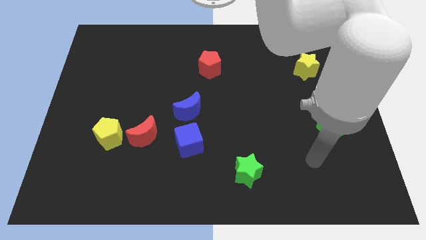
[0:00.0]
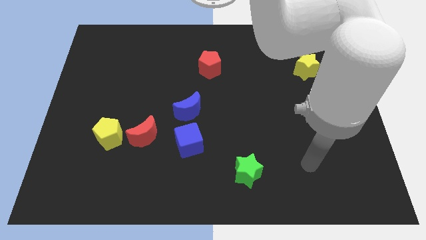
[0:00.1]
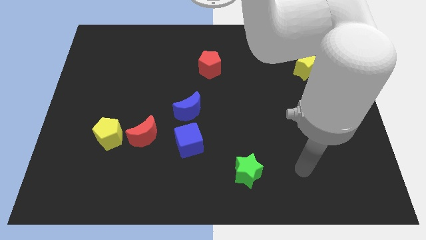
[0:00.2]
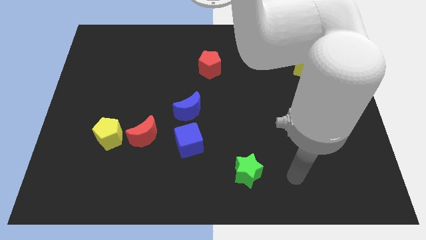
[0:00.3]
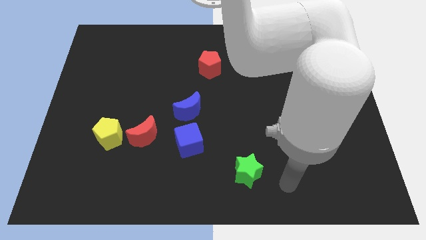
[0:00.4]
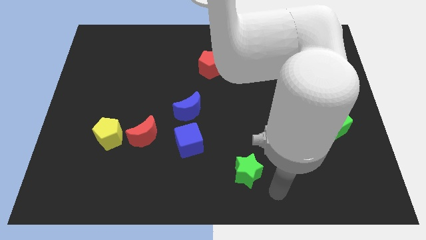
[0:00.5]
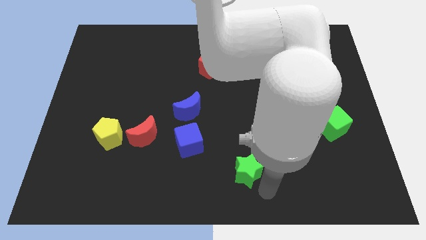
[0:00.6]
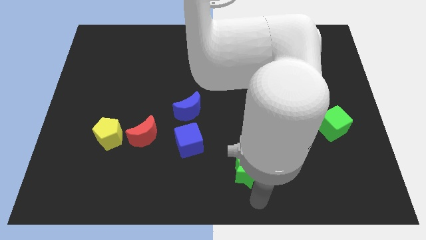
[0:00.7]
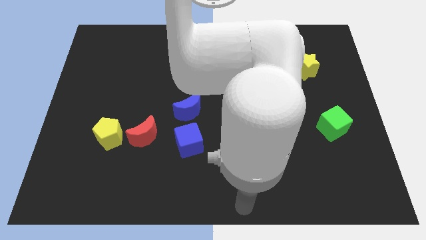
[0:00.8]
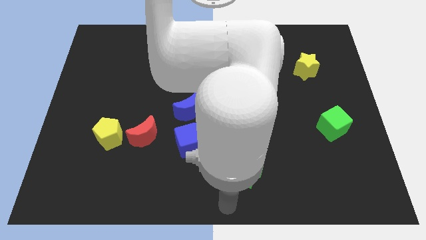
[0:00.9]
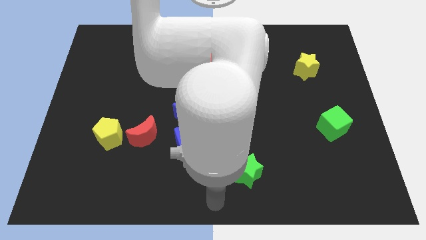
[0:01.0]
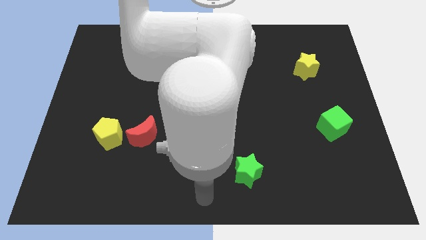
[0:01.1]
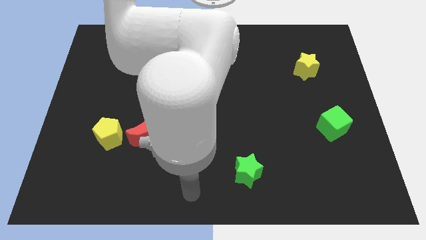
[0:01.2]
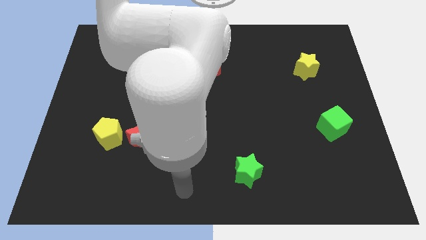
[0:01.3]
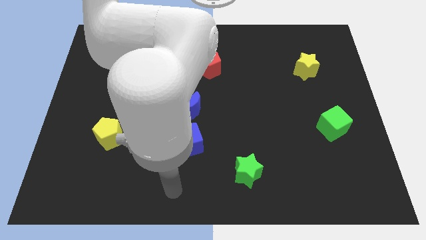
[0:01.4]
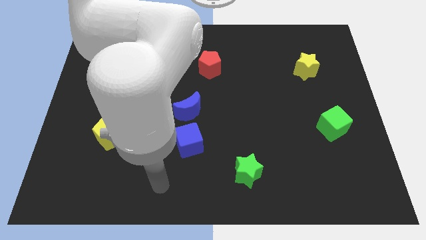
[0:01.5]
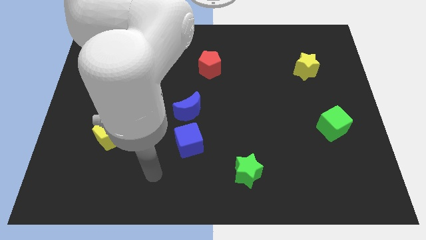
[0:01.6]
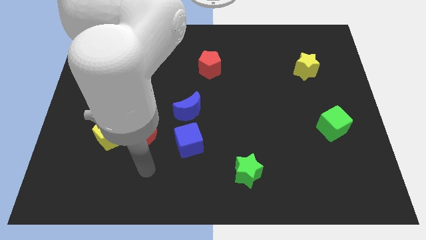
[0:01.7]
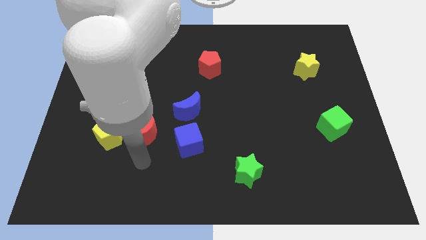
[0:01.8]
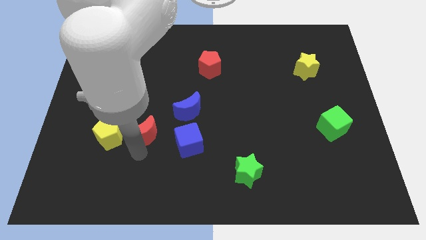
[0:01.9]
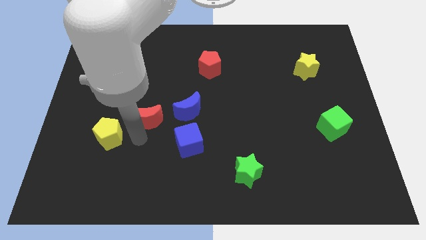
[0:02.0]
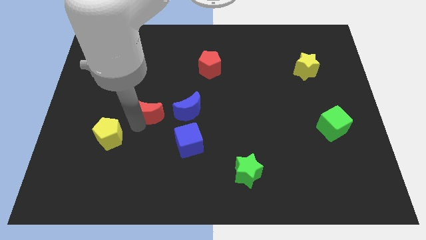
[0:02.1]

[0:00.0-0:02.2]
move the yellow pentagon away from the red moon

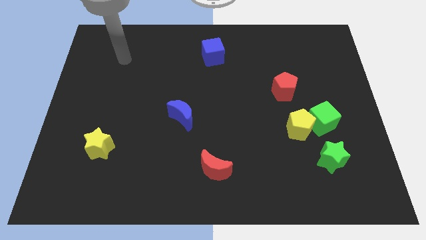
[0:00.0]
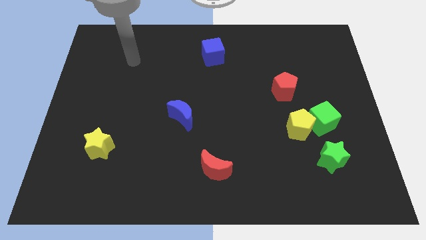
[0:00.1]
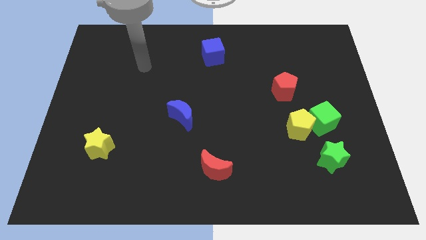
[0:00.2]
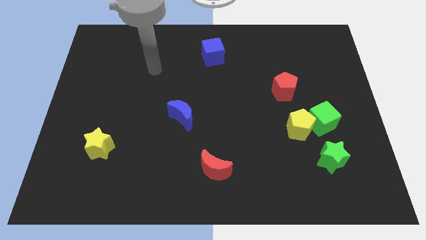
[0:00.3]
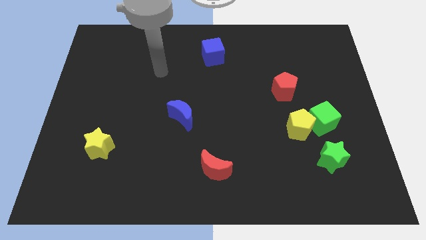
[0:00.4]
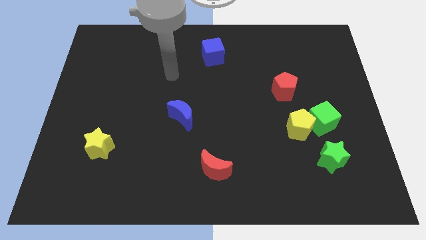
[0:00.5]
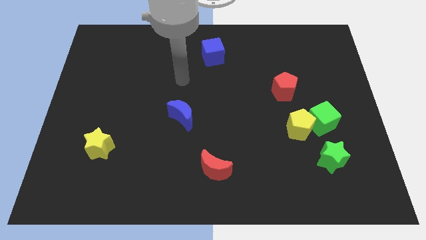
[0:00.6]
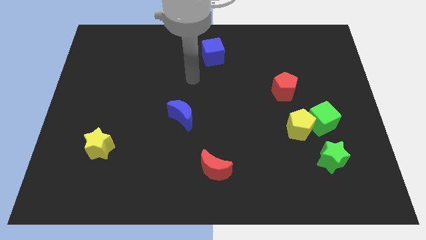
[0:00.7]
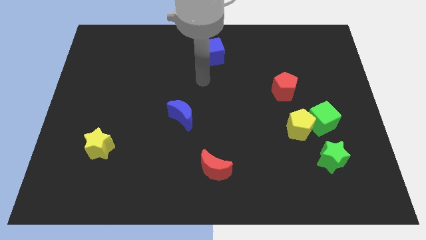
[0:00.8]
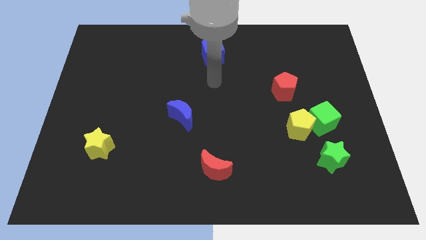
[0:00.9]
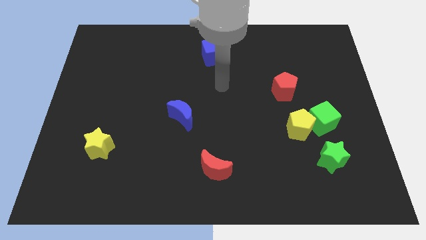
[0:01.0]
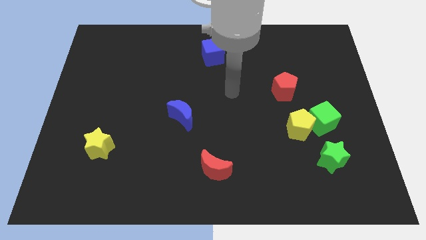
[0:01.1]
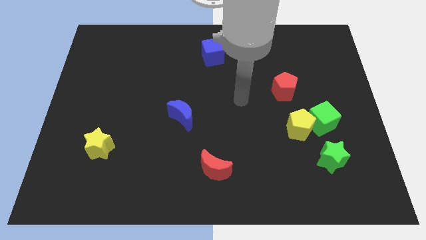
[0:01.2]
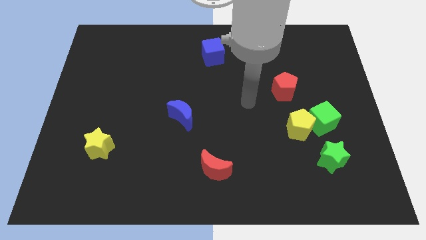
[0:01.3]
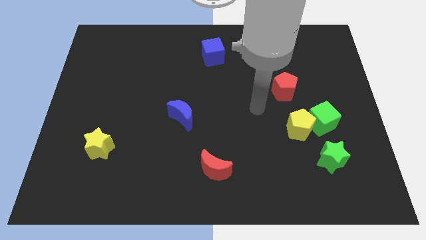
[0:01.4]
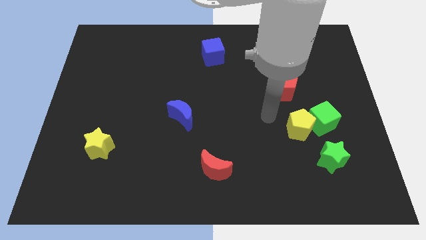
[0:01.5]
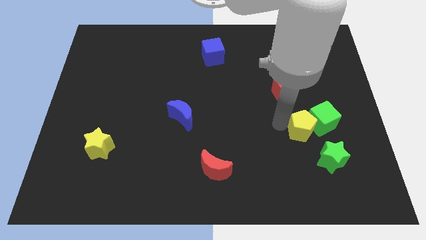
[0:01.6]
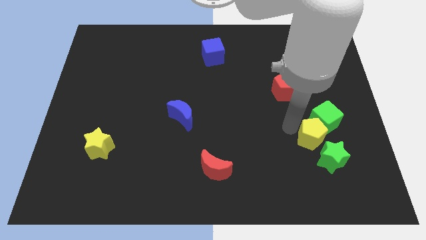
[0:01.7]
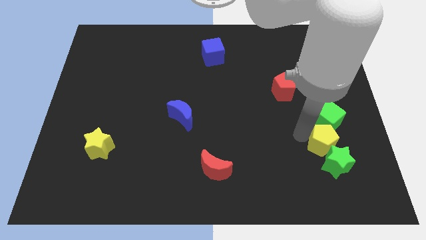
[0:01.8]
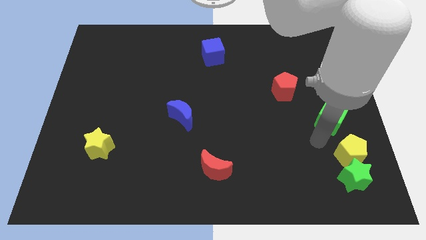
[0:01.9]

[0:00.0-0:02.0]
pull the green cube apart from the yellow pentagon and green star

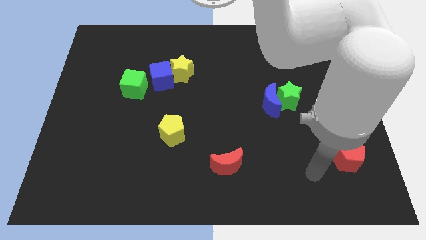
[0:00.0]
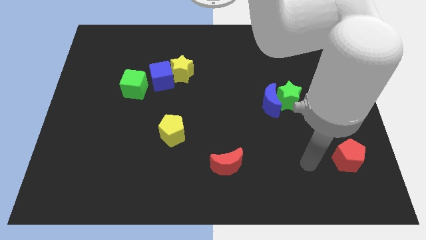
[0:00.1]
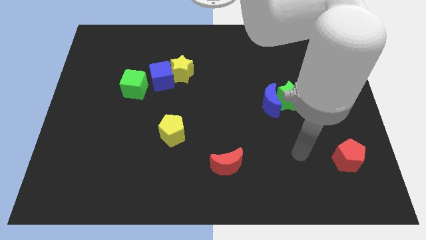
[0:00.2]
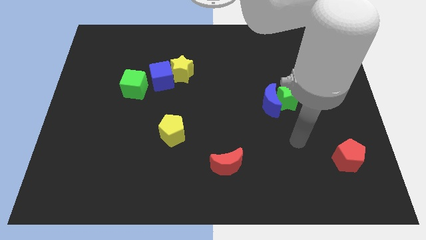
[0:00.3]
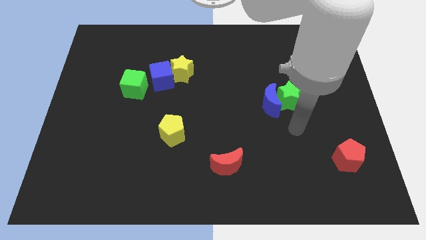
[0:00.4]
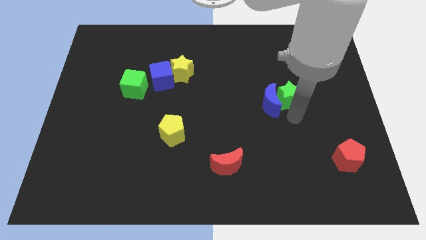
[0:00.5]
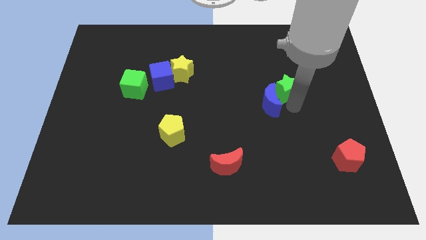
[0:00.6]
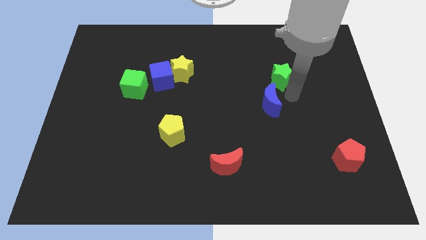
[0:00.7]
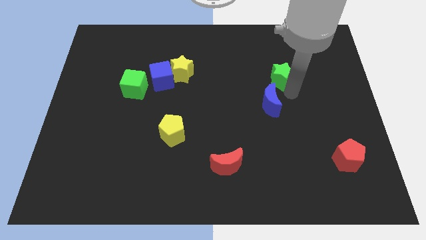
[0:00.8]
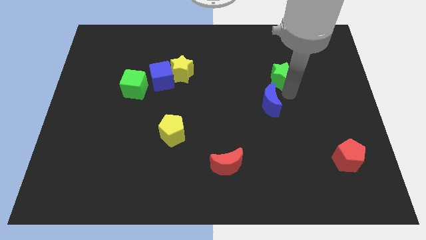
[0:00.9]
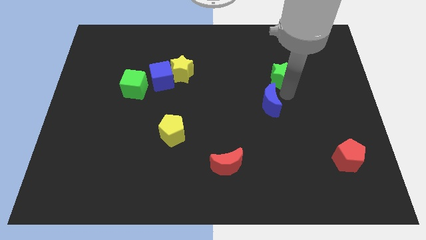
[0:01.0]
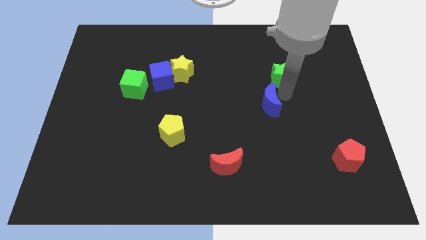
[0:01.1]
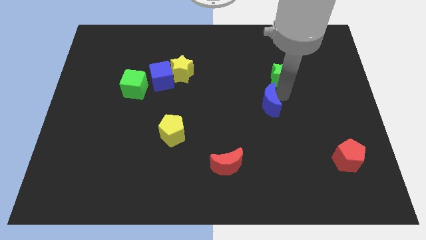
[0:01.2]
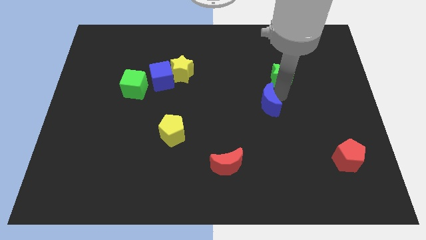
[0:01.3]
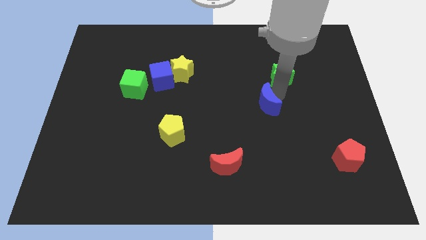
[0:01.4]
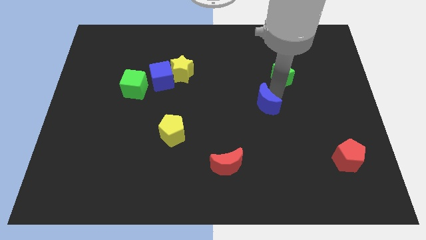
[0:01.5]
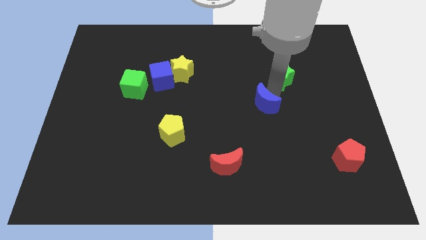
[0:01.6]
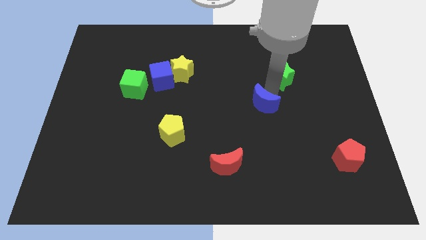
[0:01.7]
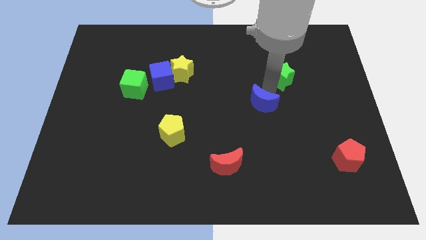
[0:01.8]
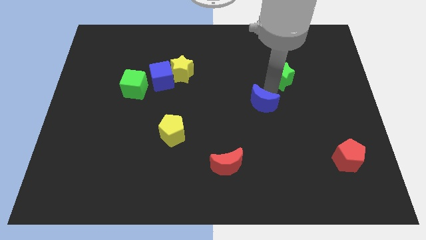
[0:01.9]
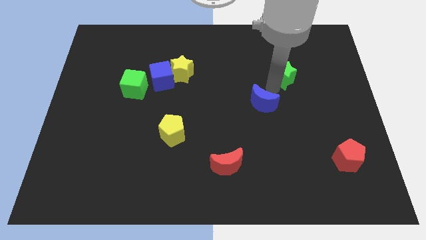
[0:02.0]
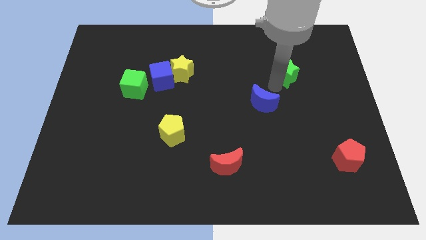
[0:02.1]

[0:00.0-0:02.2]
move the blue moon away from the green star

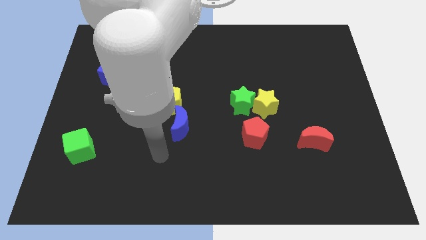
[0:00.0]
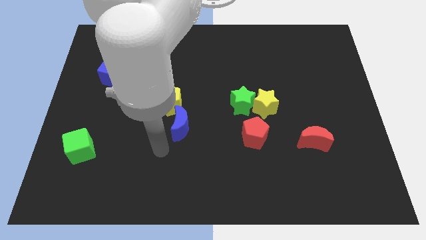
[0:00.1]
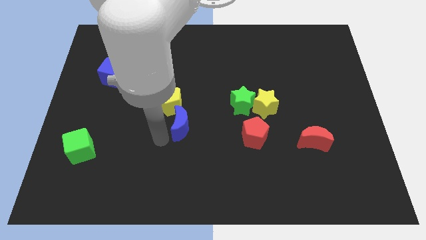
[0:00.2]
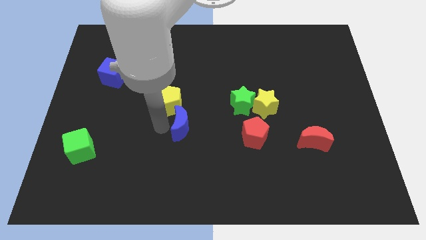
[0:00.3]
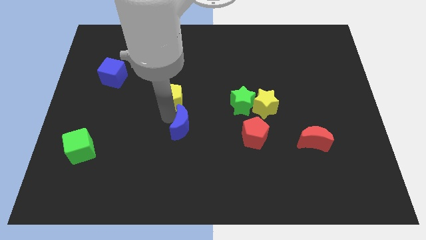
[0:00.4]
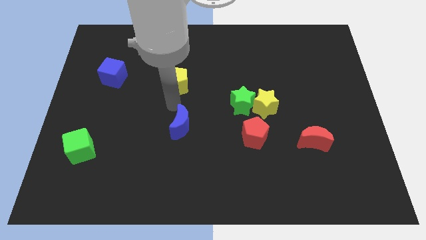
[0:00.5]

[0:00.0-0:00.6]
pull the blue moon apart from the yellow pentagon

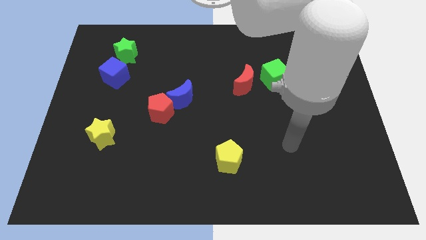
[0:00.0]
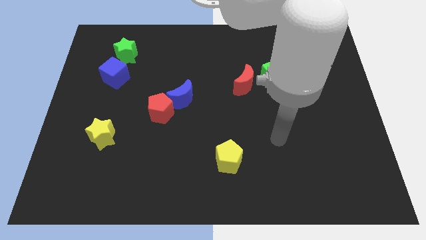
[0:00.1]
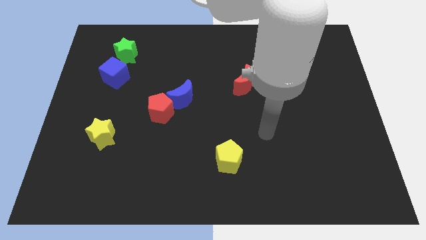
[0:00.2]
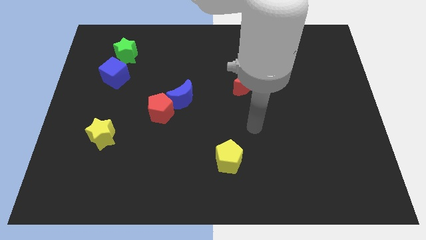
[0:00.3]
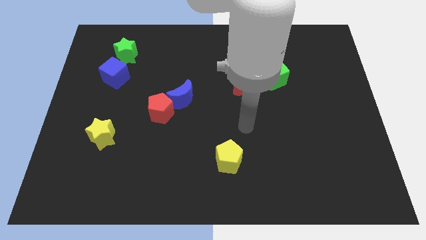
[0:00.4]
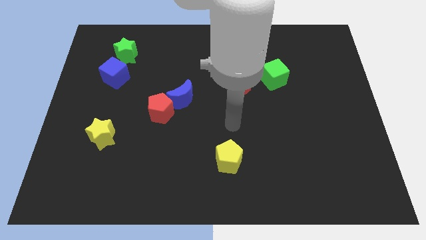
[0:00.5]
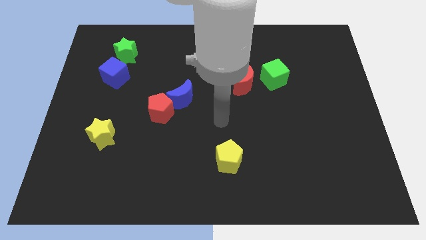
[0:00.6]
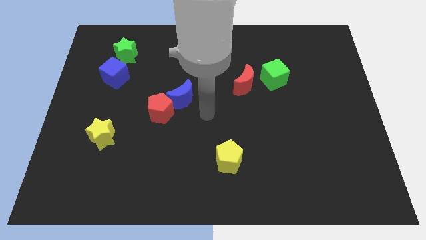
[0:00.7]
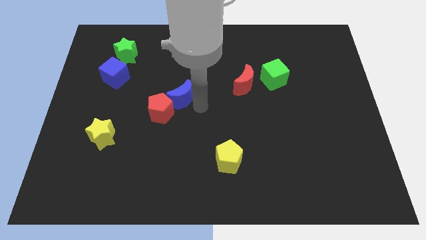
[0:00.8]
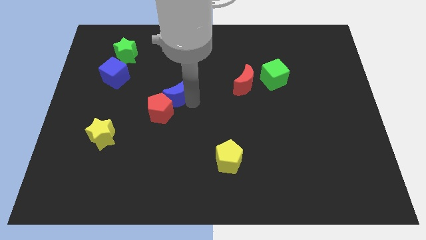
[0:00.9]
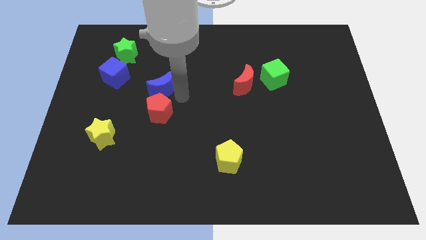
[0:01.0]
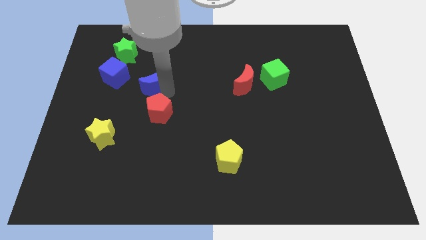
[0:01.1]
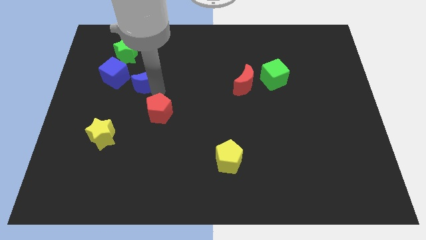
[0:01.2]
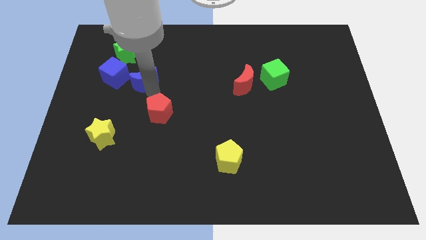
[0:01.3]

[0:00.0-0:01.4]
move the red pentagon away from the blue moon

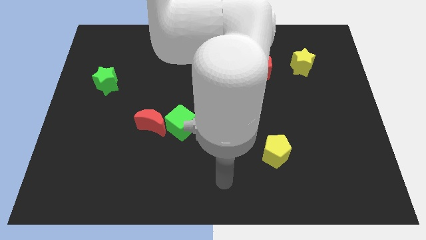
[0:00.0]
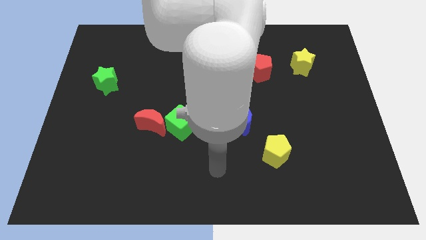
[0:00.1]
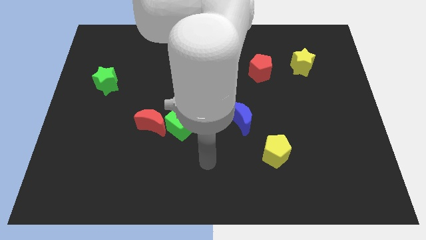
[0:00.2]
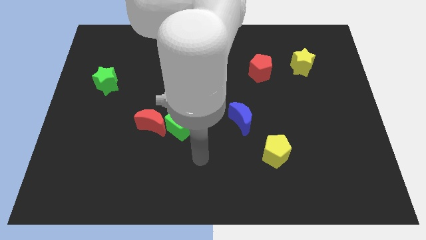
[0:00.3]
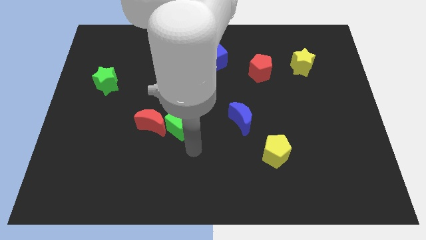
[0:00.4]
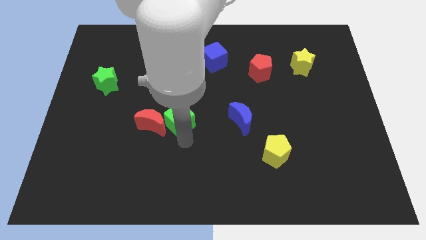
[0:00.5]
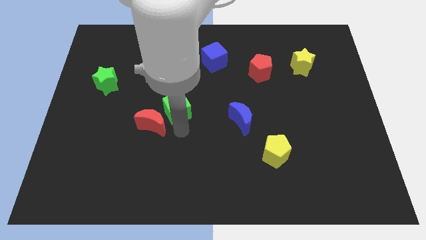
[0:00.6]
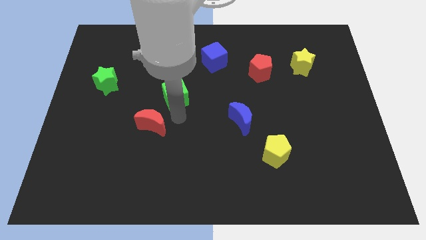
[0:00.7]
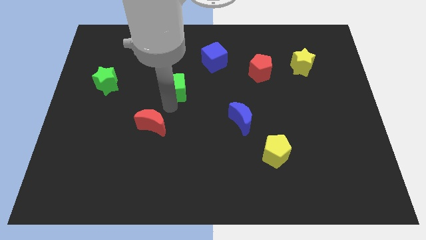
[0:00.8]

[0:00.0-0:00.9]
move the red moon away from the green cube
